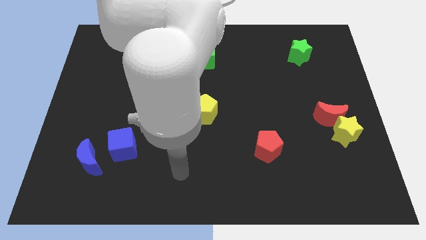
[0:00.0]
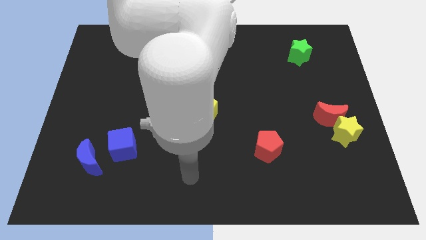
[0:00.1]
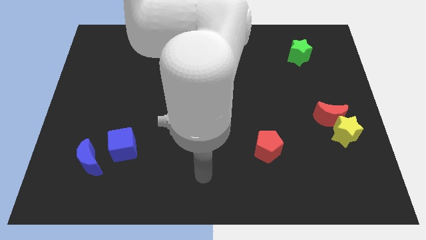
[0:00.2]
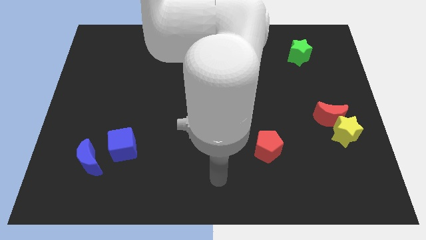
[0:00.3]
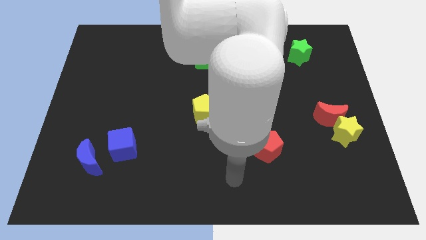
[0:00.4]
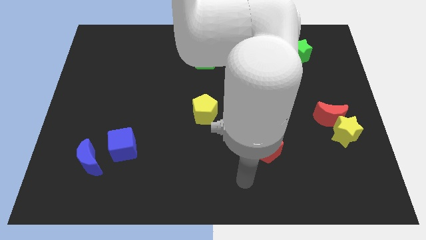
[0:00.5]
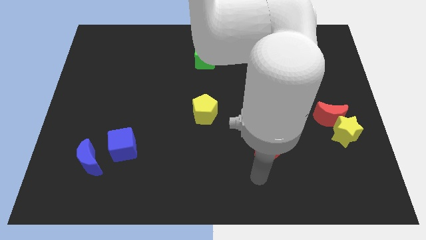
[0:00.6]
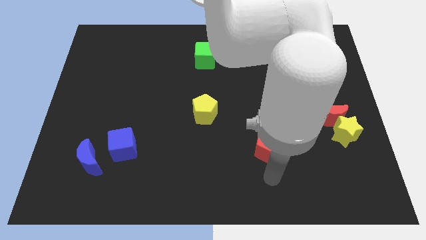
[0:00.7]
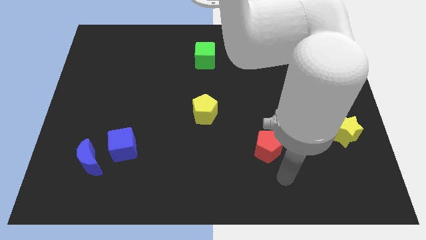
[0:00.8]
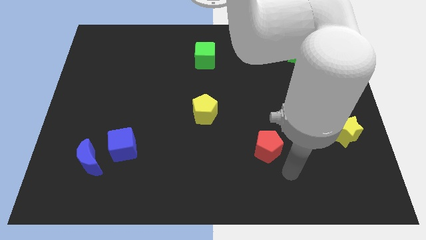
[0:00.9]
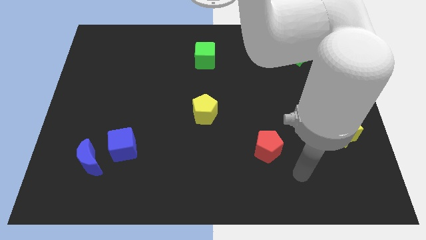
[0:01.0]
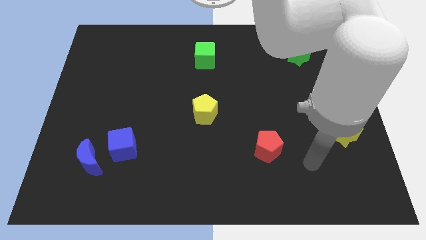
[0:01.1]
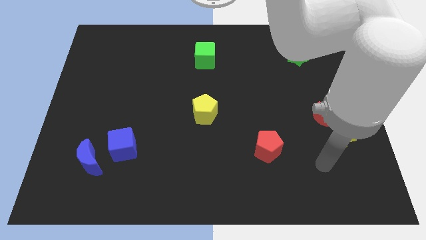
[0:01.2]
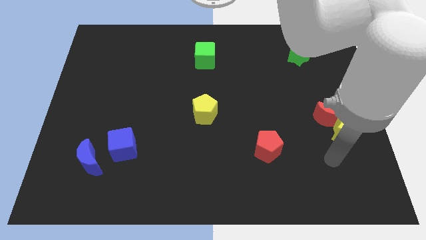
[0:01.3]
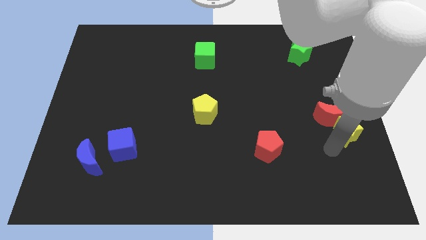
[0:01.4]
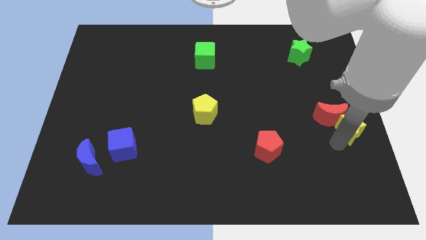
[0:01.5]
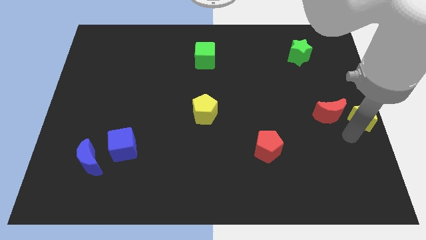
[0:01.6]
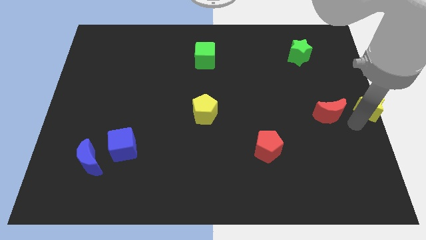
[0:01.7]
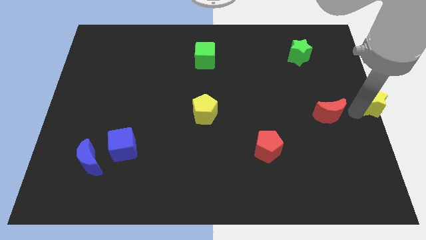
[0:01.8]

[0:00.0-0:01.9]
separate the red moon from the yellow star

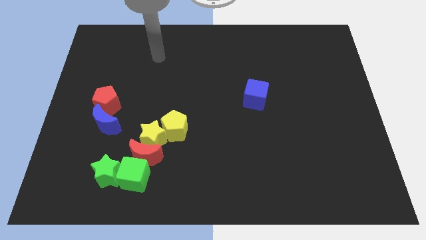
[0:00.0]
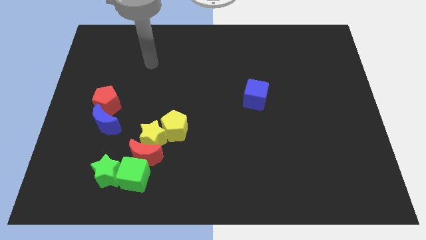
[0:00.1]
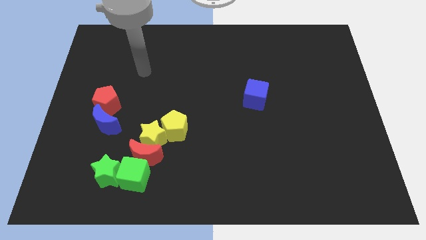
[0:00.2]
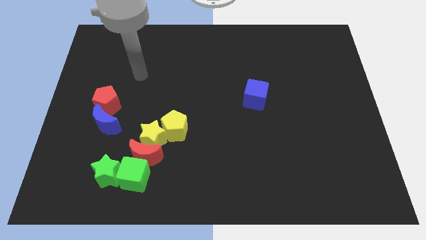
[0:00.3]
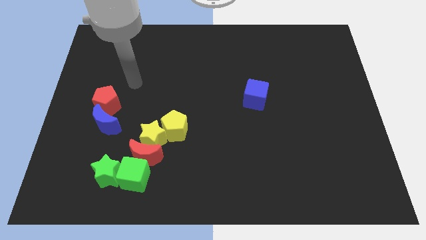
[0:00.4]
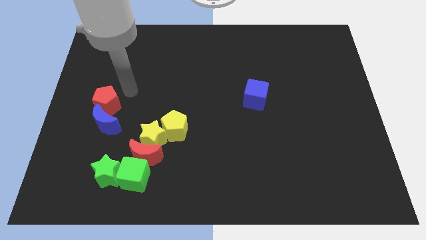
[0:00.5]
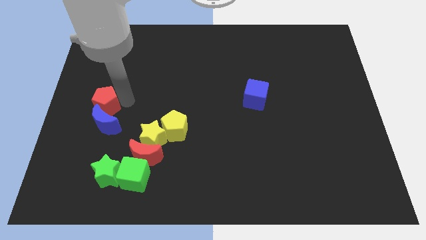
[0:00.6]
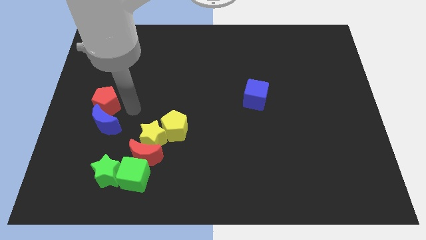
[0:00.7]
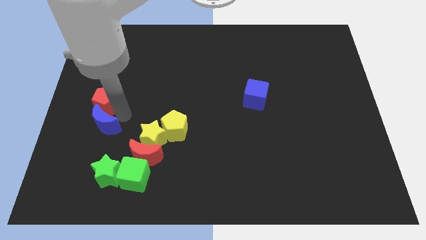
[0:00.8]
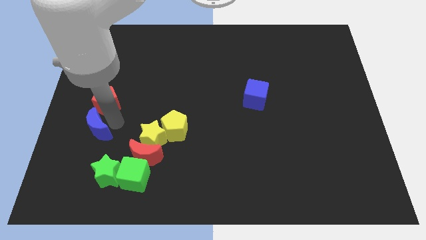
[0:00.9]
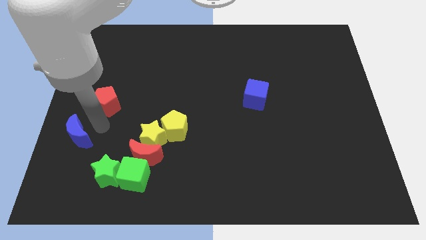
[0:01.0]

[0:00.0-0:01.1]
move the red pentagon away from the blue moon

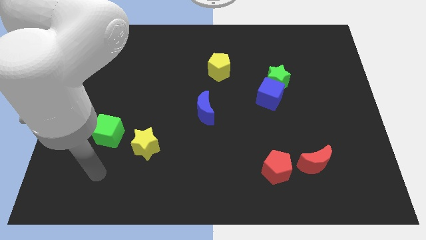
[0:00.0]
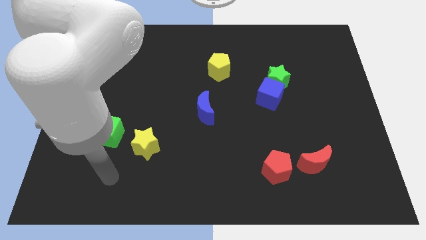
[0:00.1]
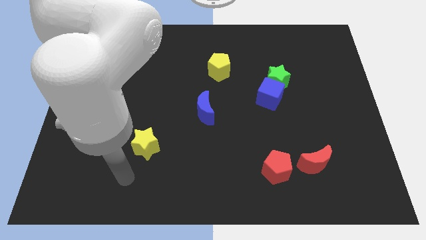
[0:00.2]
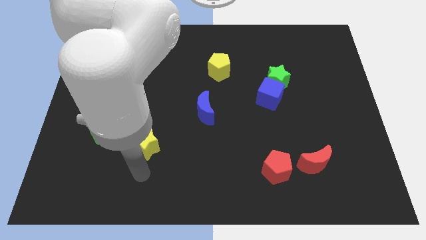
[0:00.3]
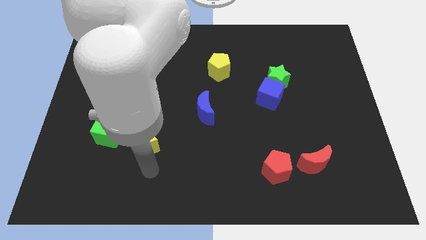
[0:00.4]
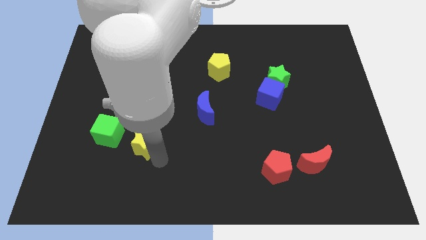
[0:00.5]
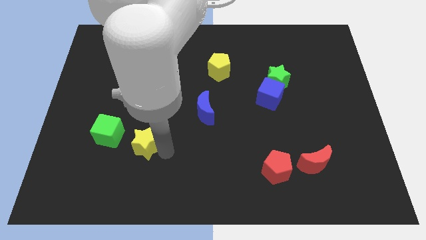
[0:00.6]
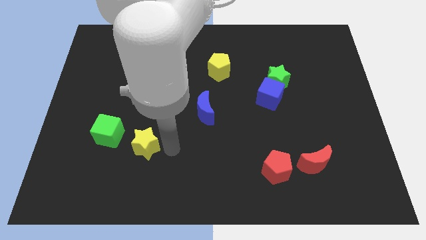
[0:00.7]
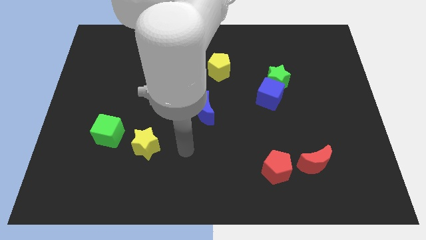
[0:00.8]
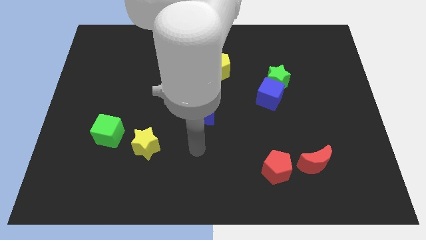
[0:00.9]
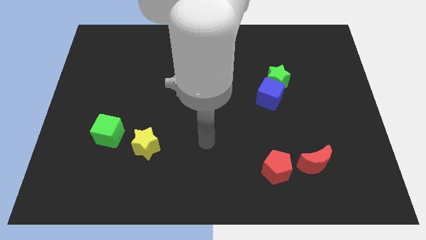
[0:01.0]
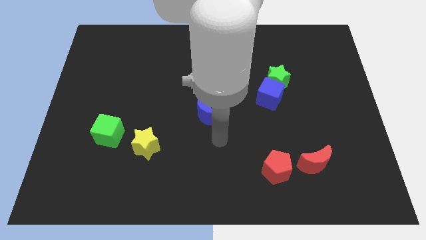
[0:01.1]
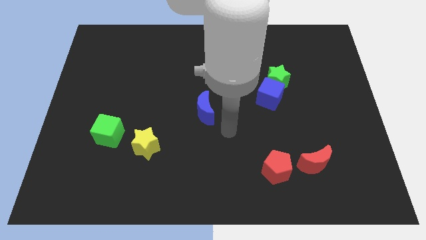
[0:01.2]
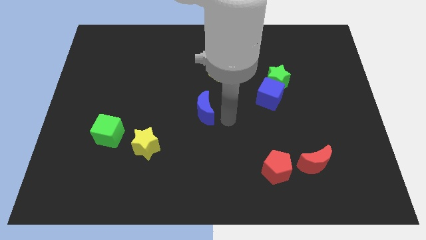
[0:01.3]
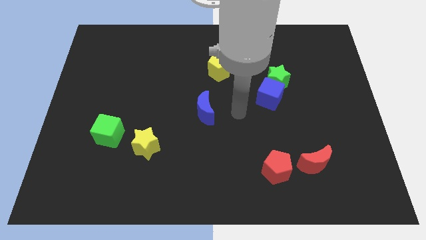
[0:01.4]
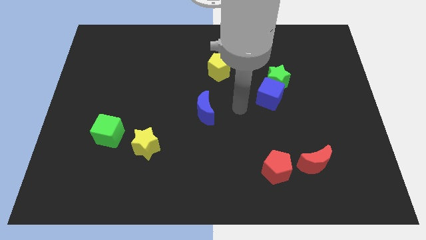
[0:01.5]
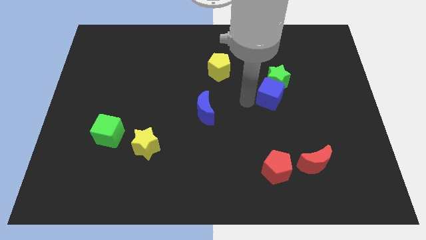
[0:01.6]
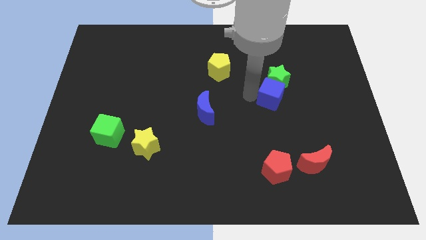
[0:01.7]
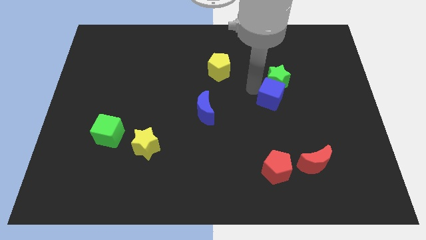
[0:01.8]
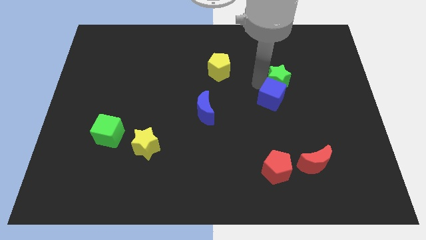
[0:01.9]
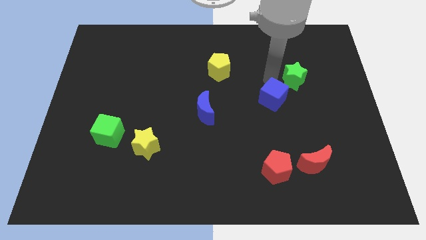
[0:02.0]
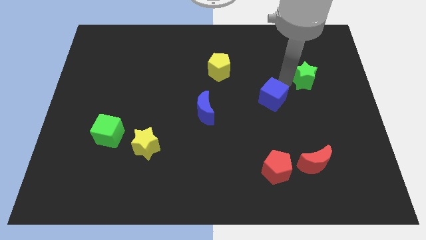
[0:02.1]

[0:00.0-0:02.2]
move the blue cube away from the green star

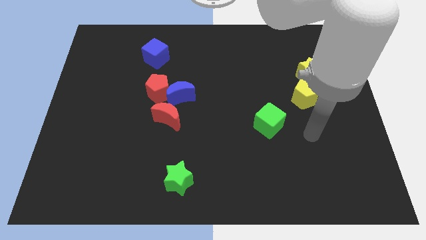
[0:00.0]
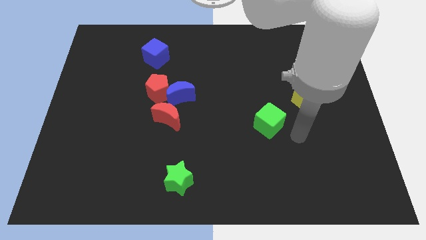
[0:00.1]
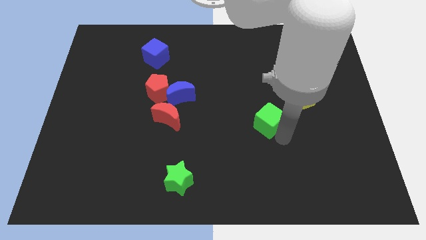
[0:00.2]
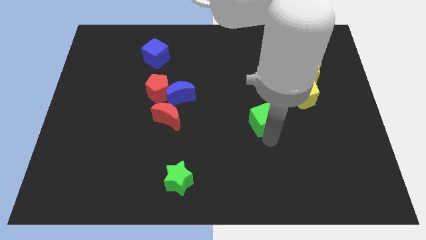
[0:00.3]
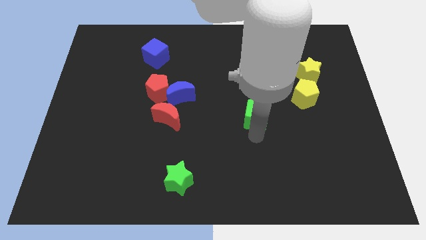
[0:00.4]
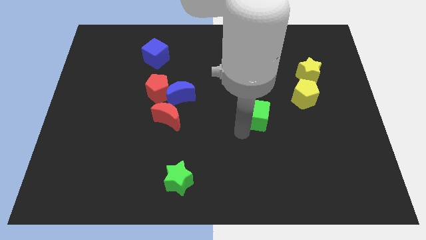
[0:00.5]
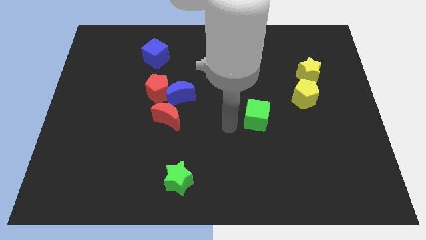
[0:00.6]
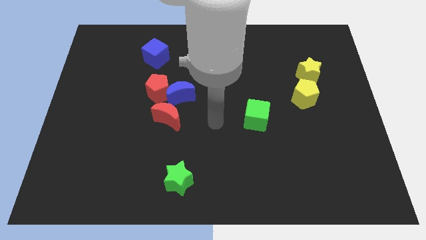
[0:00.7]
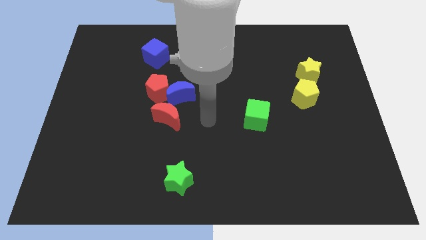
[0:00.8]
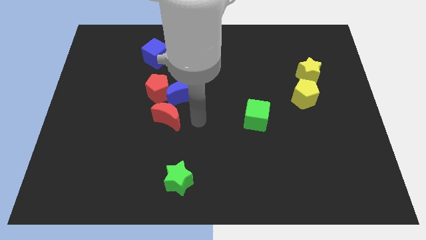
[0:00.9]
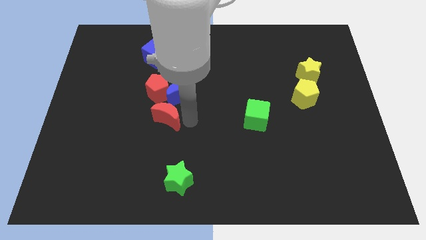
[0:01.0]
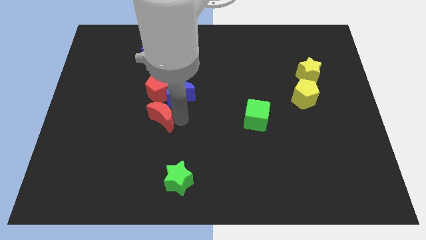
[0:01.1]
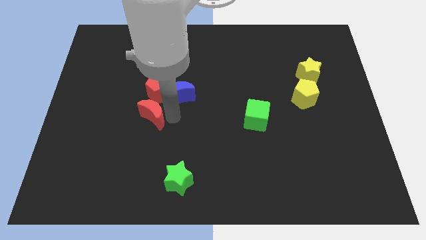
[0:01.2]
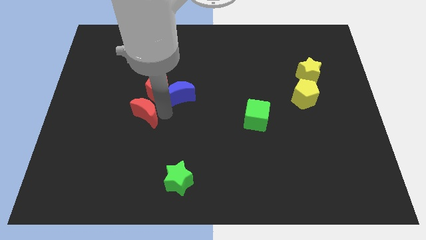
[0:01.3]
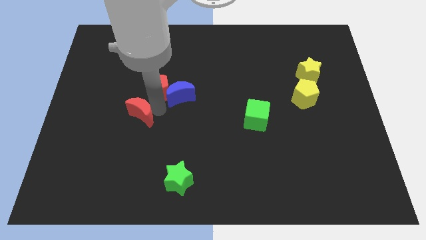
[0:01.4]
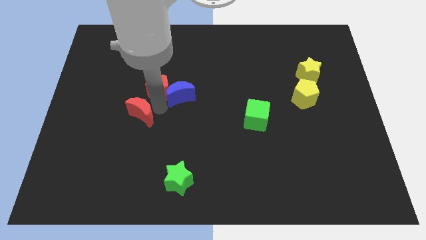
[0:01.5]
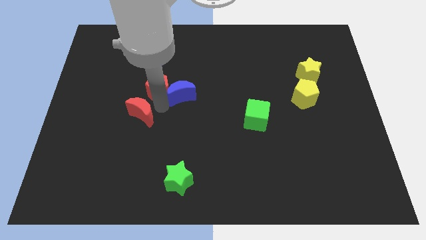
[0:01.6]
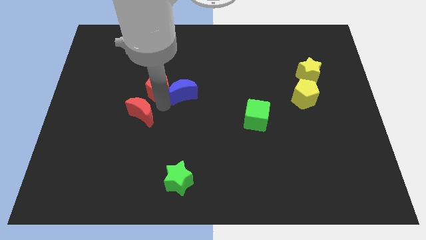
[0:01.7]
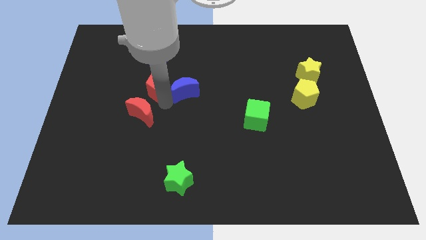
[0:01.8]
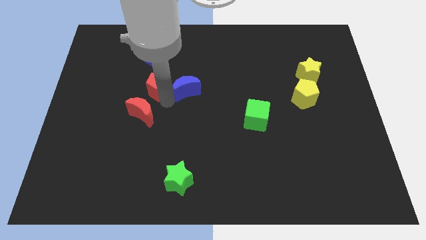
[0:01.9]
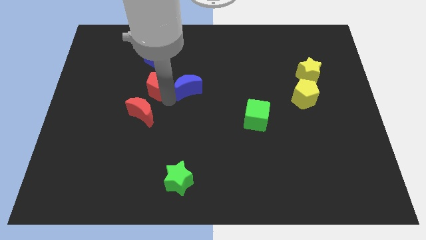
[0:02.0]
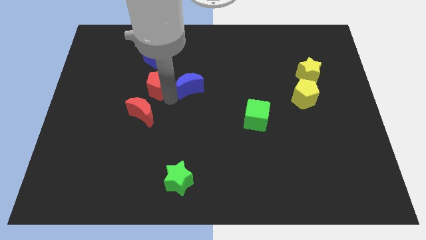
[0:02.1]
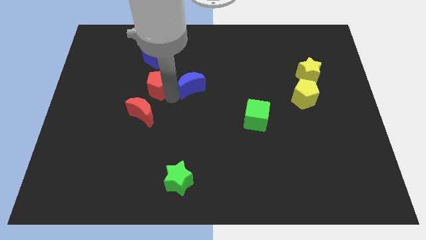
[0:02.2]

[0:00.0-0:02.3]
move the blue moon away from the red pentagon and red moon

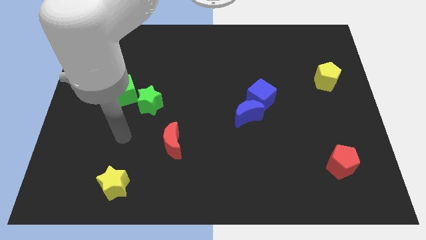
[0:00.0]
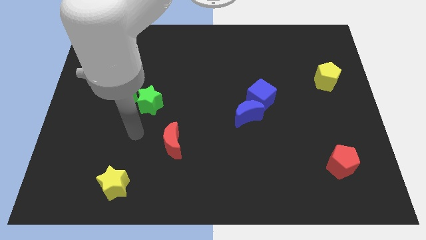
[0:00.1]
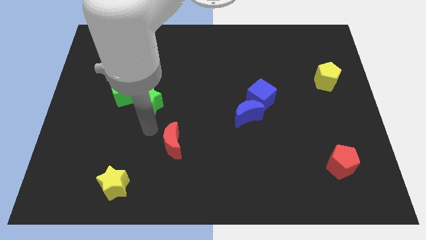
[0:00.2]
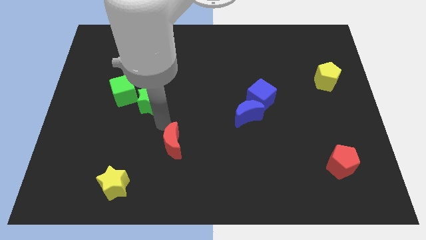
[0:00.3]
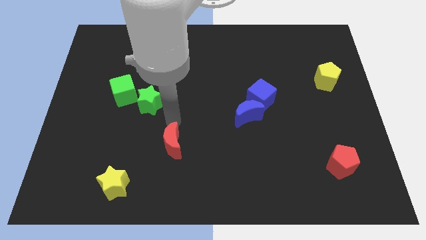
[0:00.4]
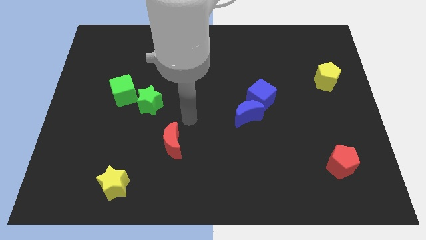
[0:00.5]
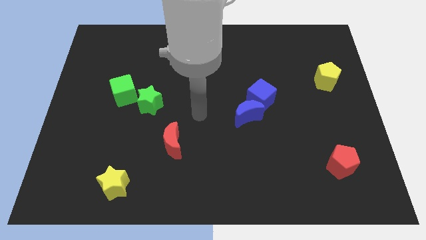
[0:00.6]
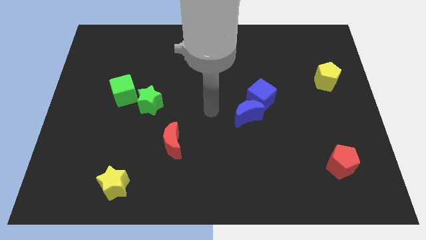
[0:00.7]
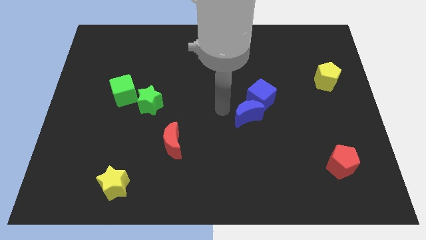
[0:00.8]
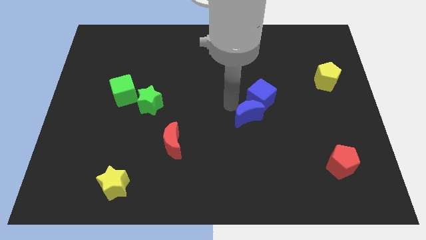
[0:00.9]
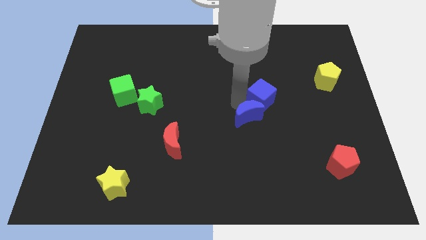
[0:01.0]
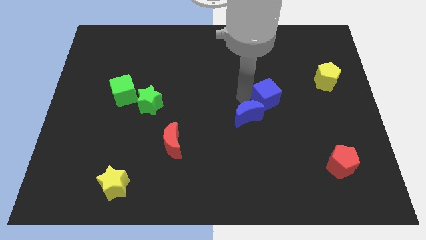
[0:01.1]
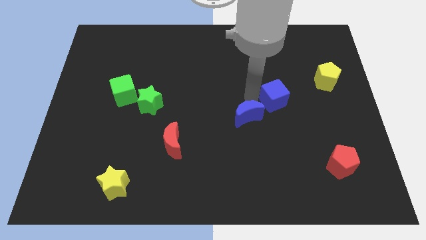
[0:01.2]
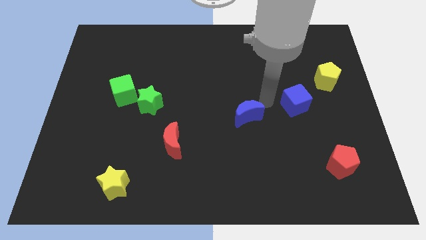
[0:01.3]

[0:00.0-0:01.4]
separate the blue moon from the blue cube

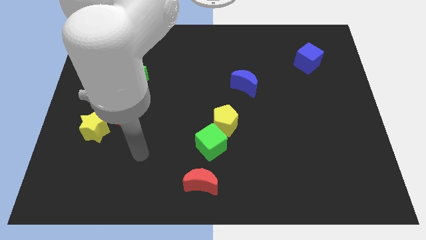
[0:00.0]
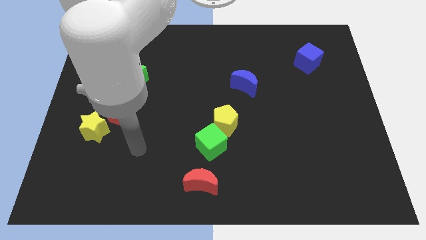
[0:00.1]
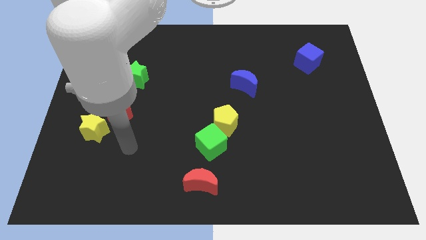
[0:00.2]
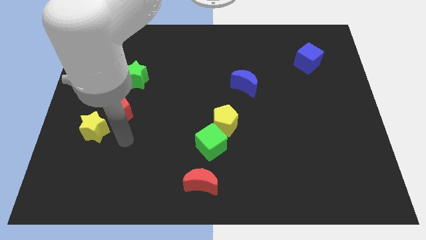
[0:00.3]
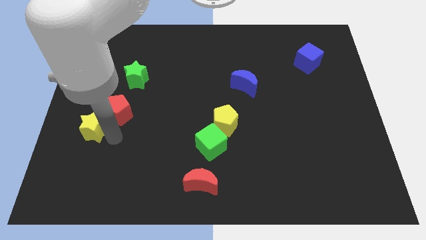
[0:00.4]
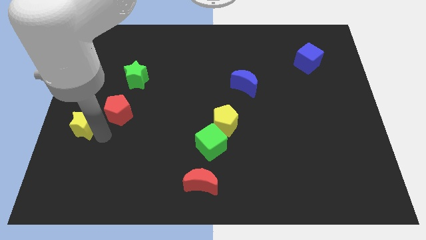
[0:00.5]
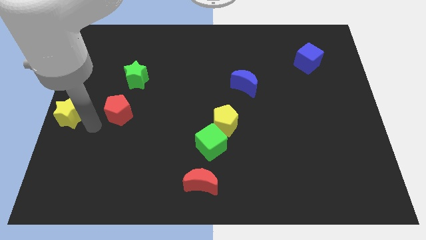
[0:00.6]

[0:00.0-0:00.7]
move the red pentagon away from the yellow star
